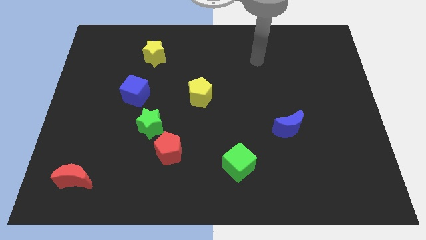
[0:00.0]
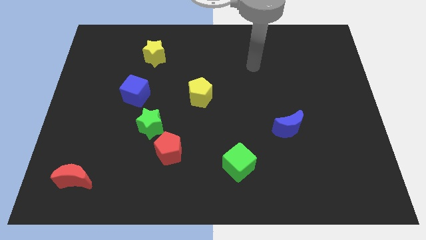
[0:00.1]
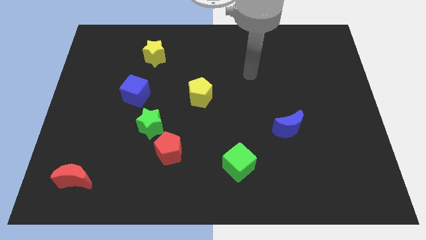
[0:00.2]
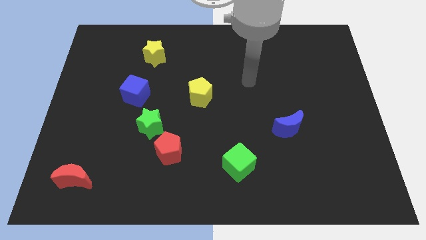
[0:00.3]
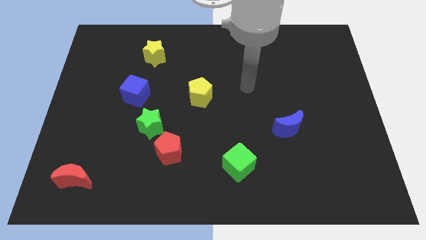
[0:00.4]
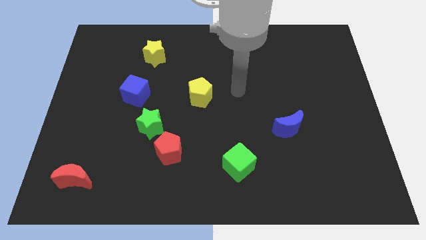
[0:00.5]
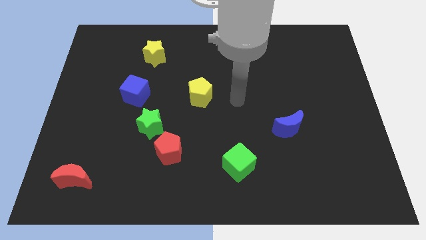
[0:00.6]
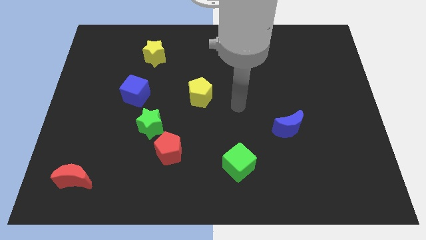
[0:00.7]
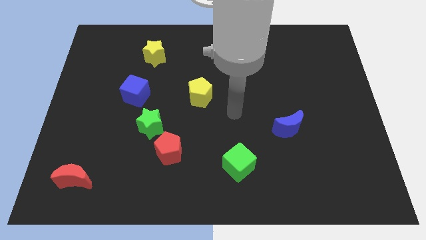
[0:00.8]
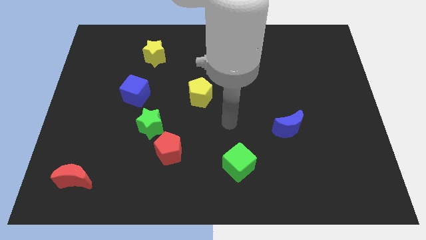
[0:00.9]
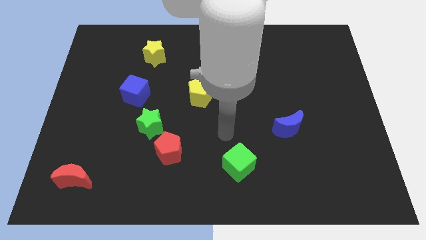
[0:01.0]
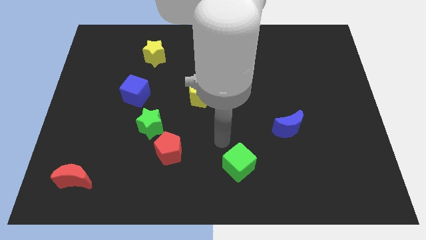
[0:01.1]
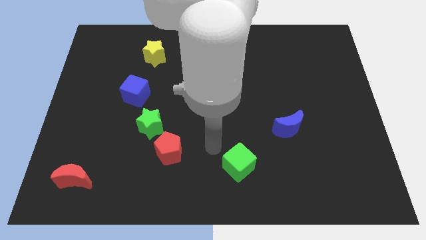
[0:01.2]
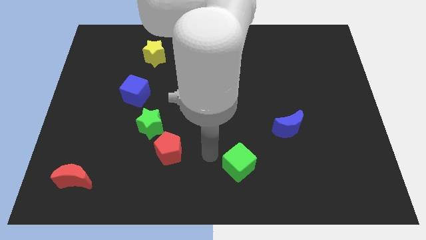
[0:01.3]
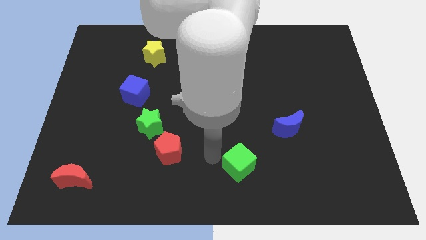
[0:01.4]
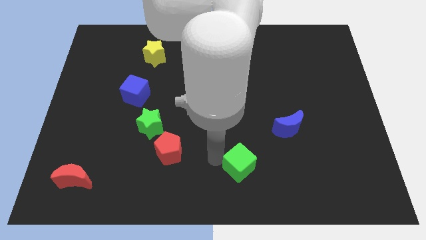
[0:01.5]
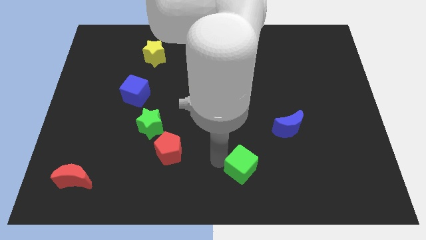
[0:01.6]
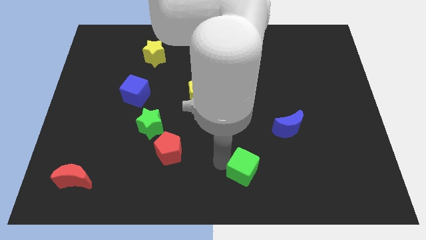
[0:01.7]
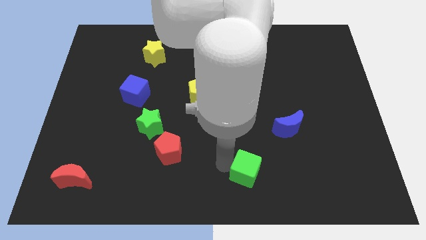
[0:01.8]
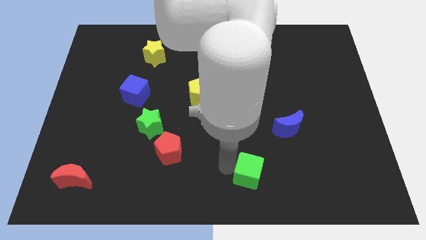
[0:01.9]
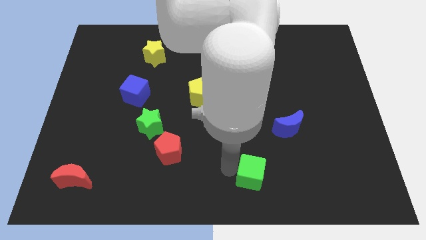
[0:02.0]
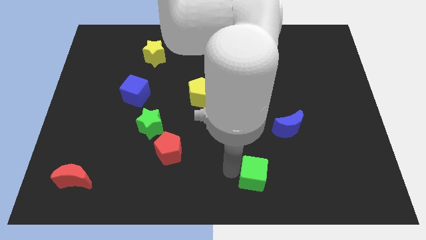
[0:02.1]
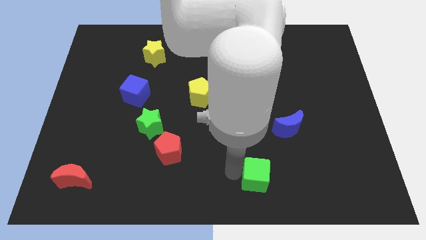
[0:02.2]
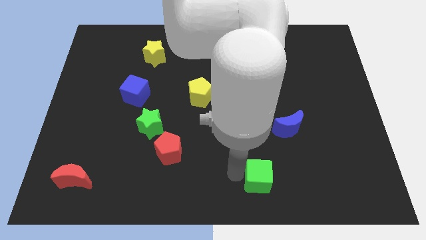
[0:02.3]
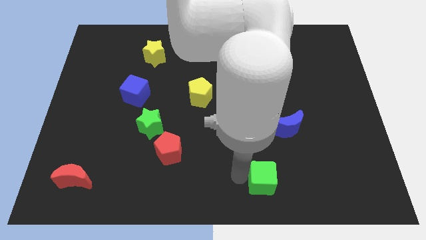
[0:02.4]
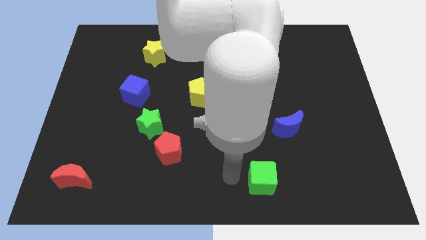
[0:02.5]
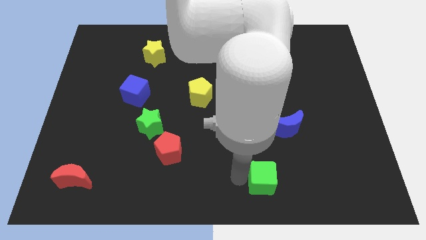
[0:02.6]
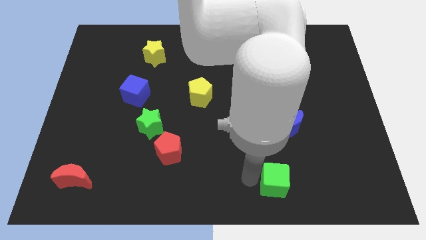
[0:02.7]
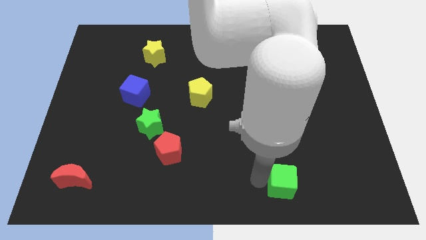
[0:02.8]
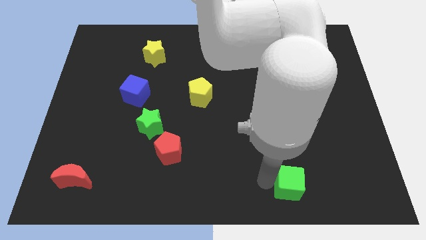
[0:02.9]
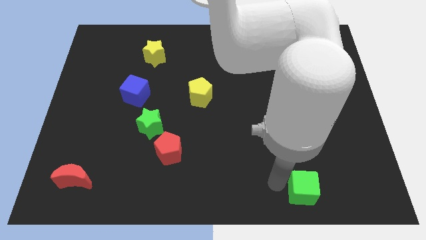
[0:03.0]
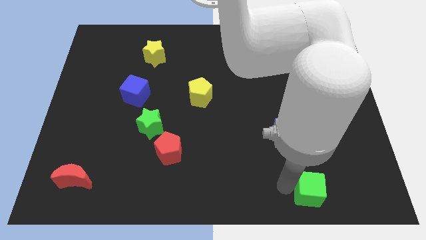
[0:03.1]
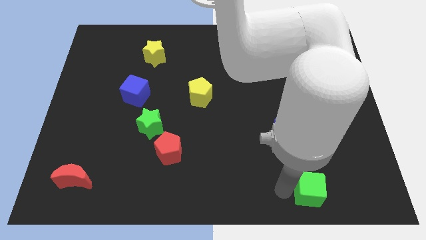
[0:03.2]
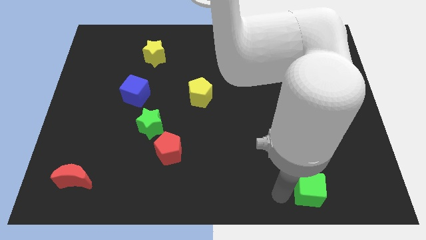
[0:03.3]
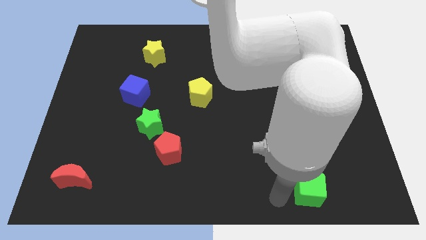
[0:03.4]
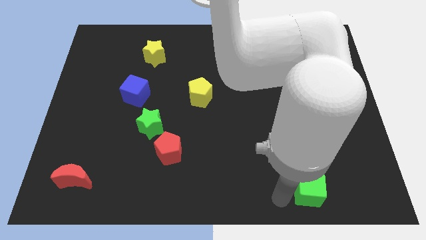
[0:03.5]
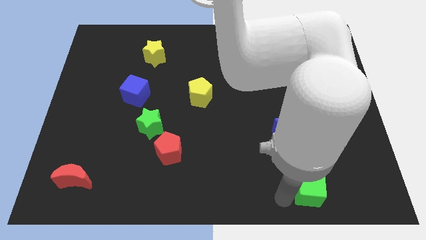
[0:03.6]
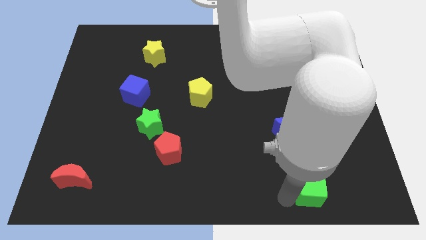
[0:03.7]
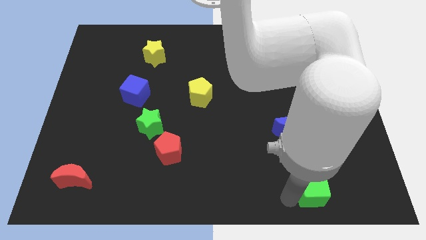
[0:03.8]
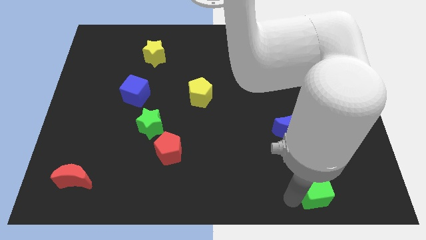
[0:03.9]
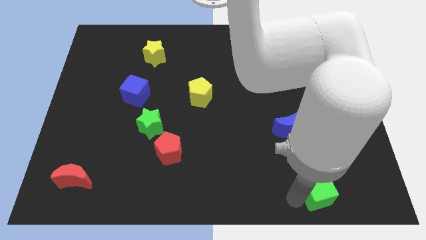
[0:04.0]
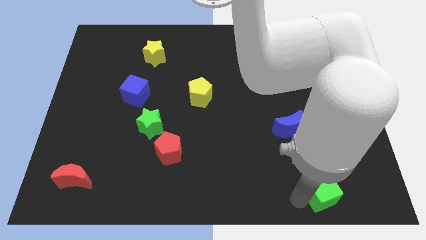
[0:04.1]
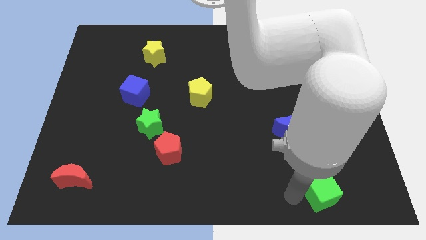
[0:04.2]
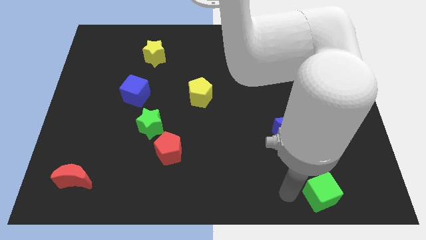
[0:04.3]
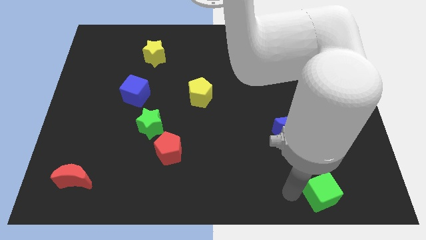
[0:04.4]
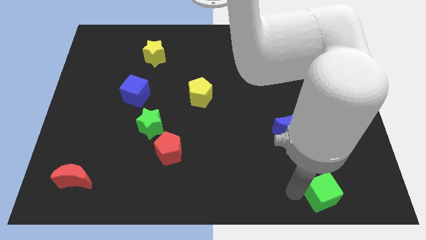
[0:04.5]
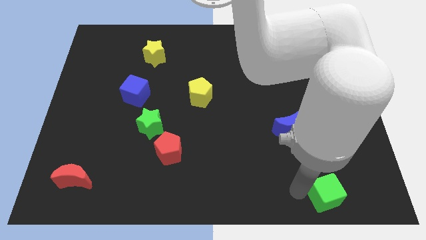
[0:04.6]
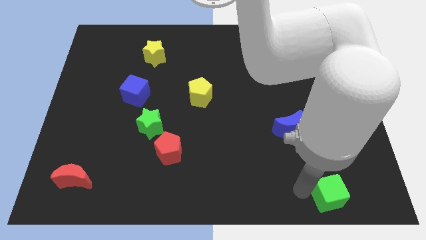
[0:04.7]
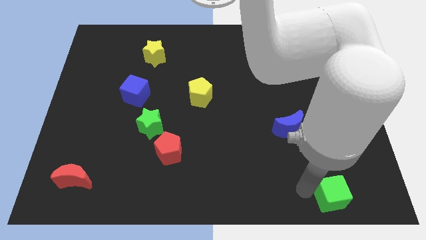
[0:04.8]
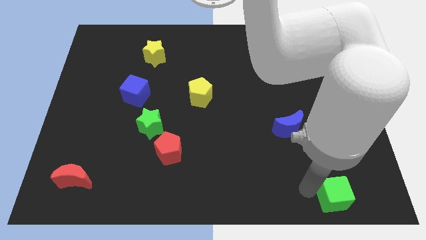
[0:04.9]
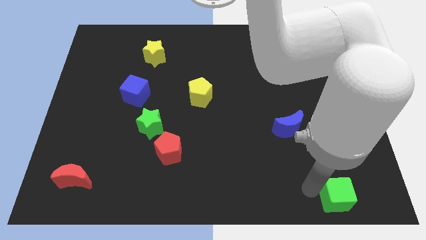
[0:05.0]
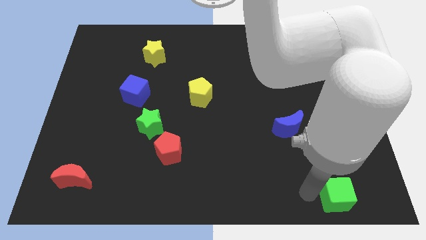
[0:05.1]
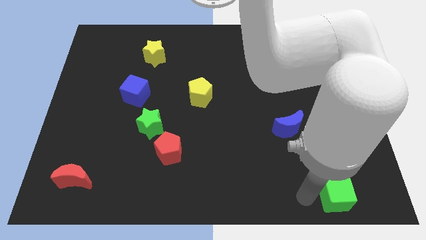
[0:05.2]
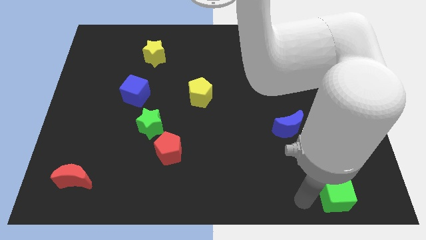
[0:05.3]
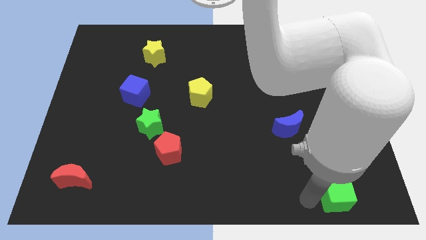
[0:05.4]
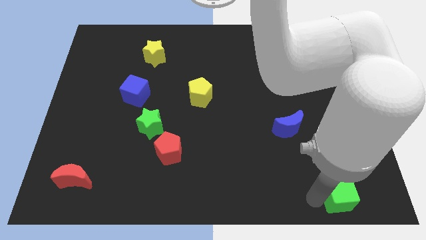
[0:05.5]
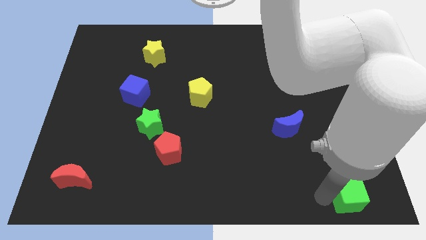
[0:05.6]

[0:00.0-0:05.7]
move the green cube to the bottom right corner

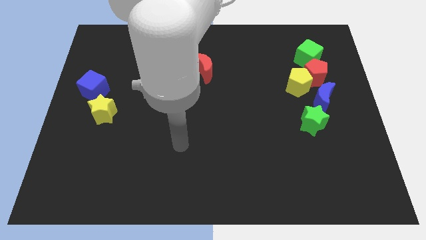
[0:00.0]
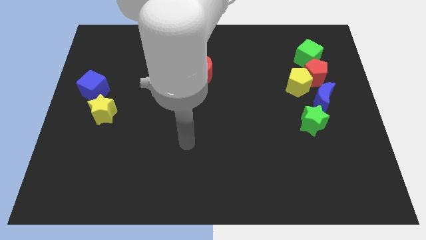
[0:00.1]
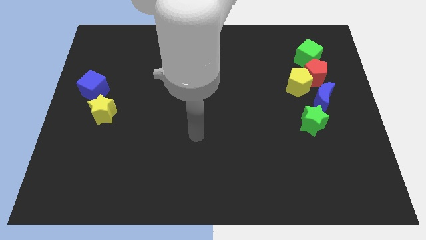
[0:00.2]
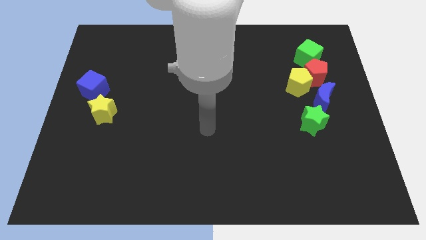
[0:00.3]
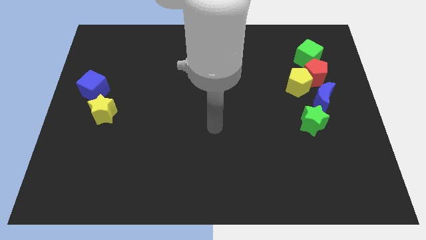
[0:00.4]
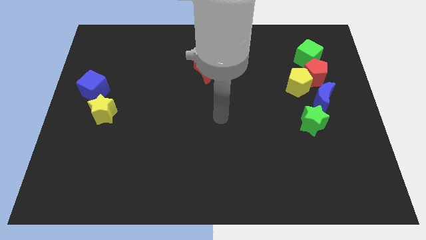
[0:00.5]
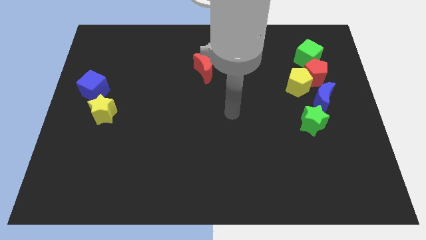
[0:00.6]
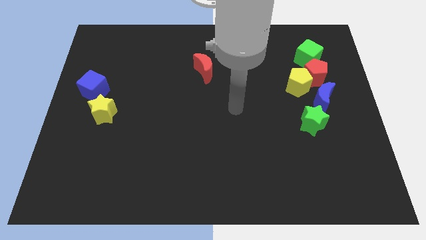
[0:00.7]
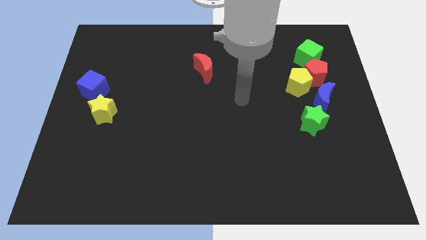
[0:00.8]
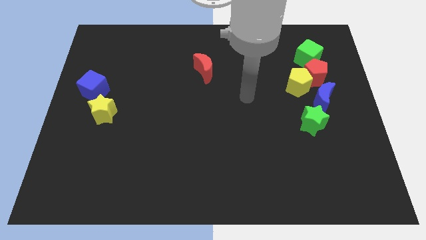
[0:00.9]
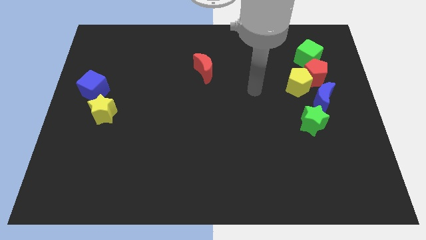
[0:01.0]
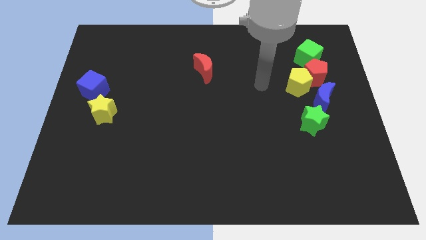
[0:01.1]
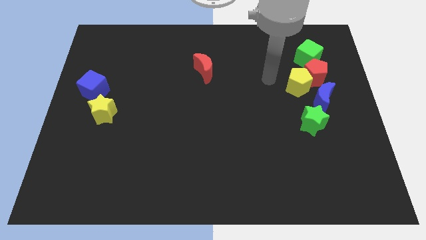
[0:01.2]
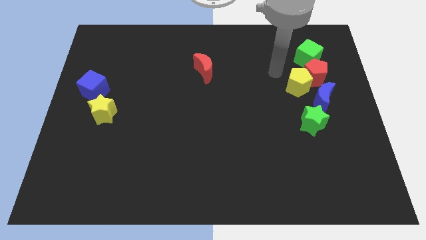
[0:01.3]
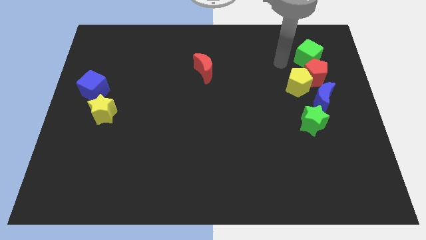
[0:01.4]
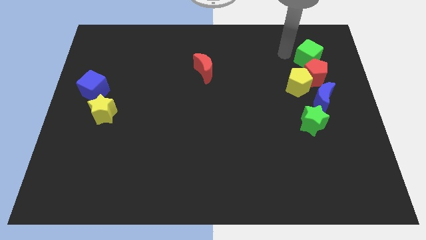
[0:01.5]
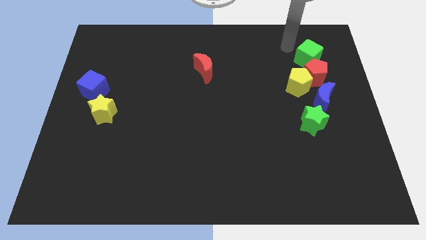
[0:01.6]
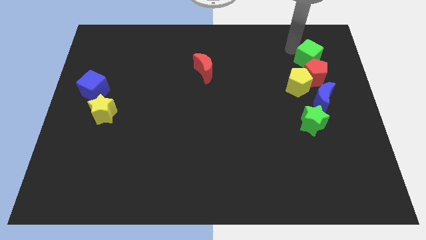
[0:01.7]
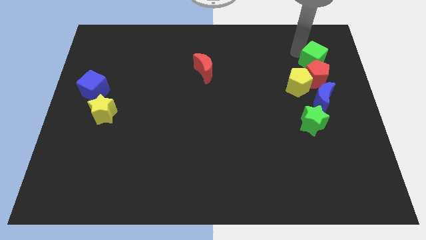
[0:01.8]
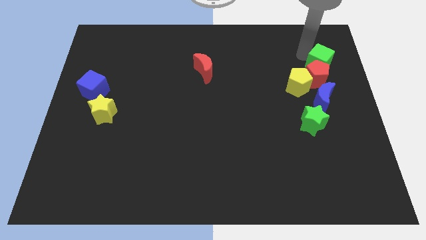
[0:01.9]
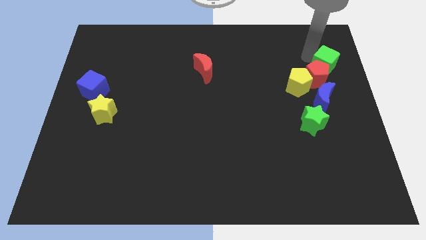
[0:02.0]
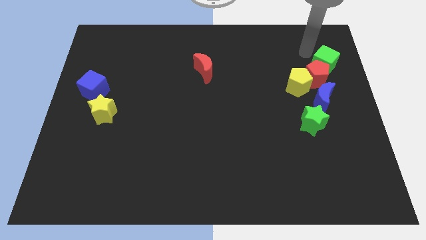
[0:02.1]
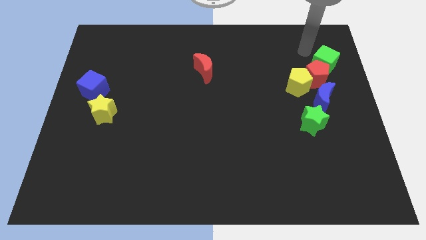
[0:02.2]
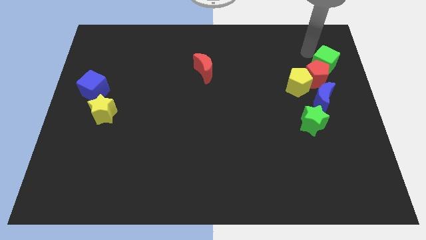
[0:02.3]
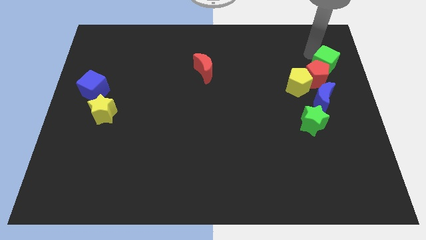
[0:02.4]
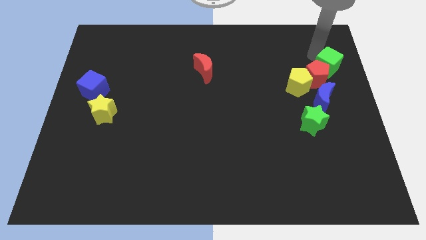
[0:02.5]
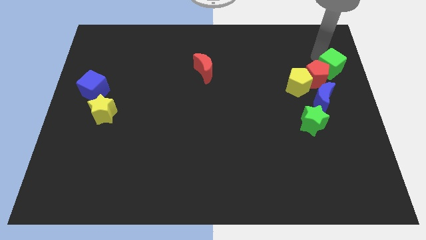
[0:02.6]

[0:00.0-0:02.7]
push the green cube to the center right
